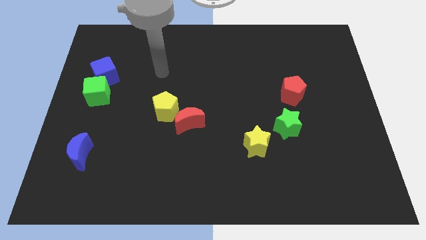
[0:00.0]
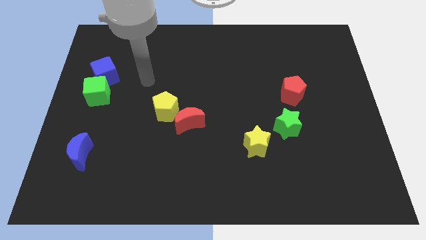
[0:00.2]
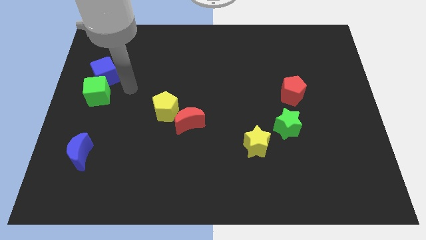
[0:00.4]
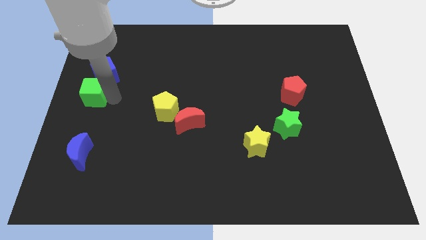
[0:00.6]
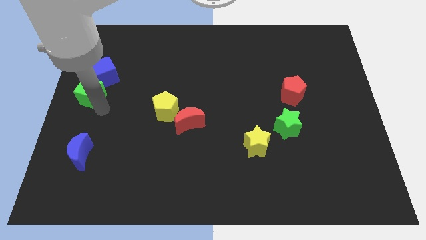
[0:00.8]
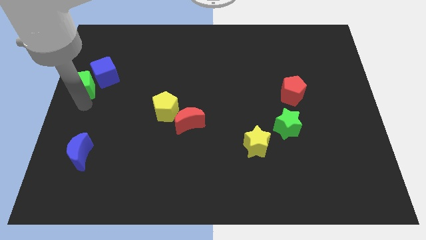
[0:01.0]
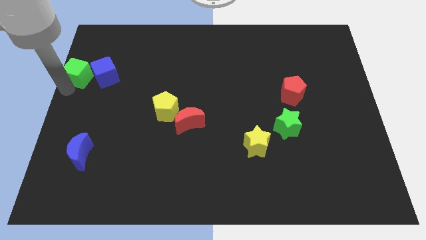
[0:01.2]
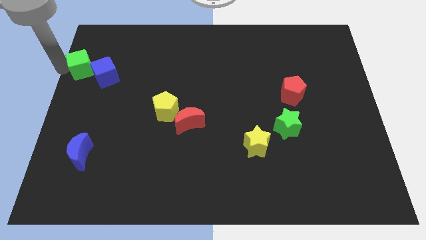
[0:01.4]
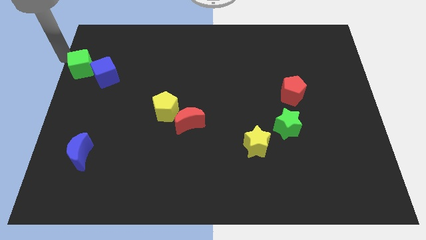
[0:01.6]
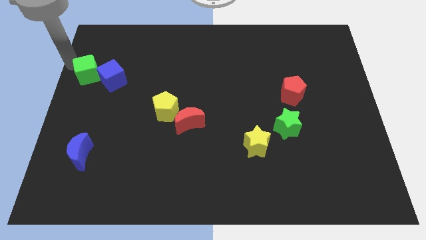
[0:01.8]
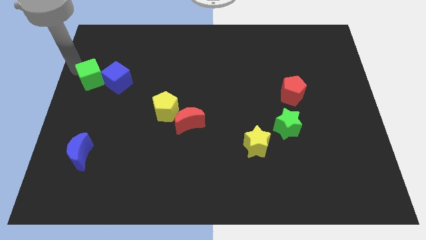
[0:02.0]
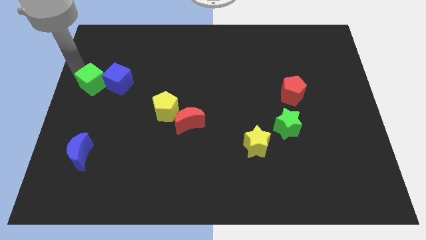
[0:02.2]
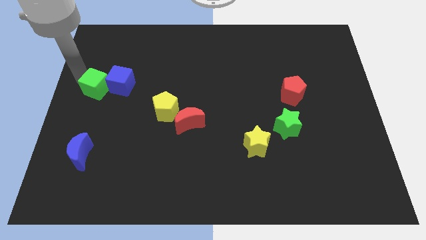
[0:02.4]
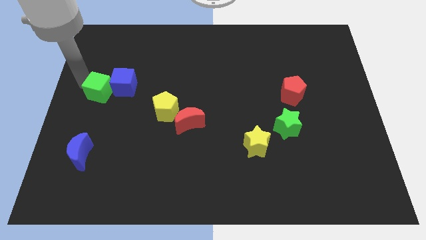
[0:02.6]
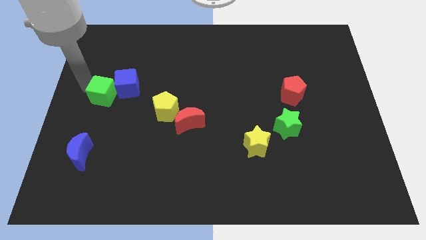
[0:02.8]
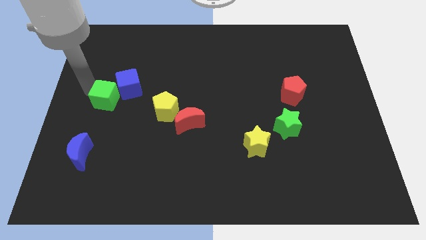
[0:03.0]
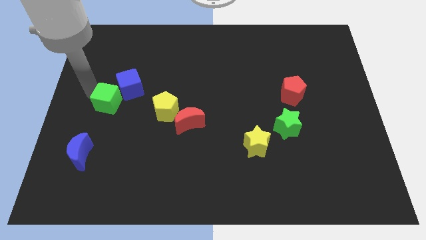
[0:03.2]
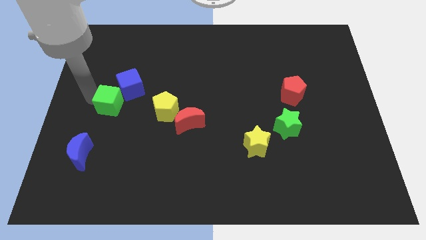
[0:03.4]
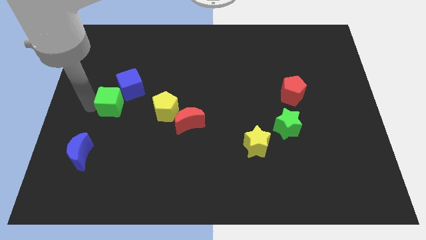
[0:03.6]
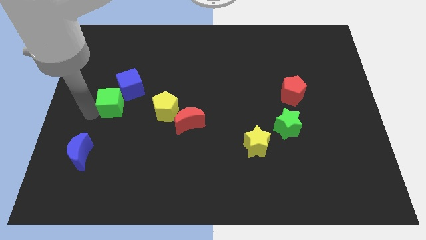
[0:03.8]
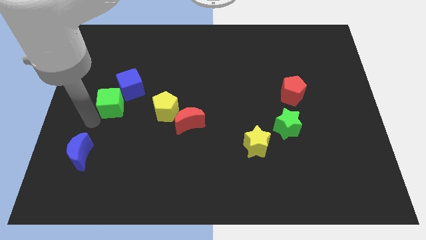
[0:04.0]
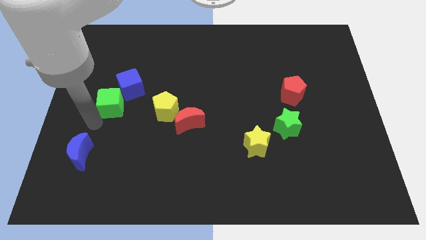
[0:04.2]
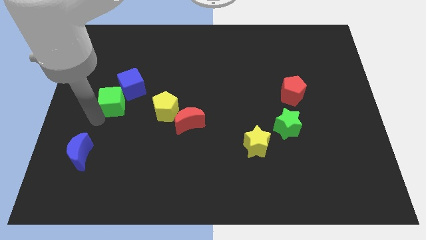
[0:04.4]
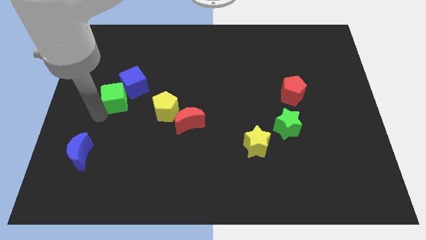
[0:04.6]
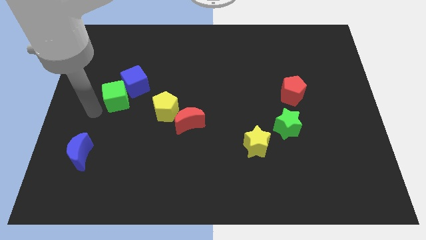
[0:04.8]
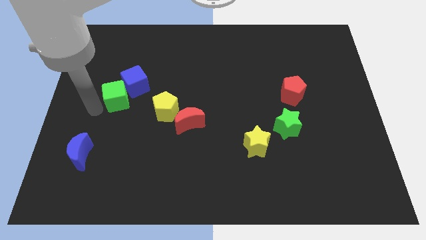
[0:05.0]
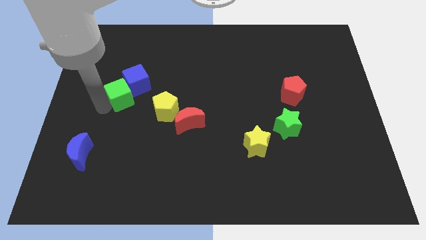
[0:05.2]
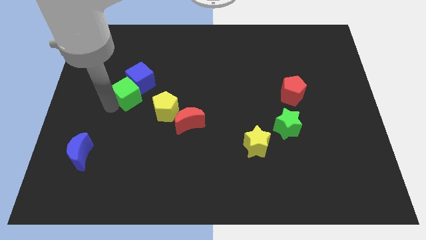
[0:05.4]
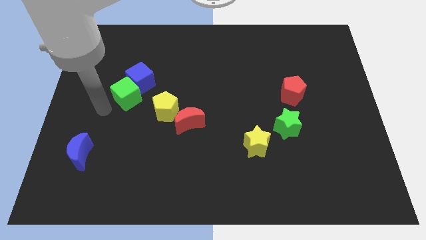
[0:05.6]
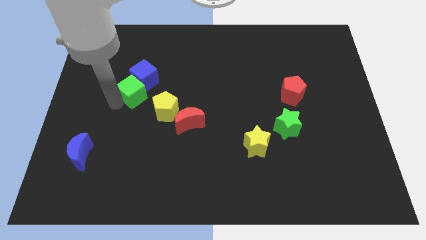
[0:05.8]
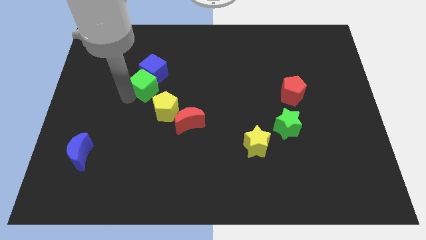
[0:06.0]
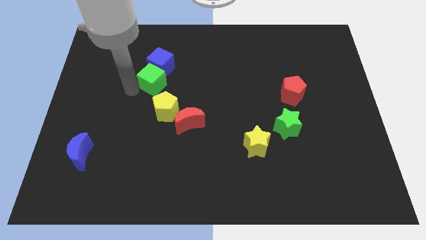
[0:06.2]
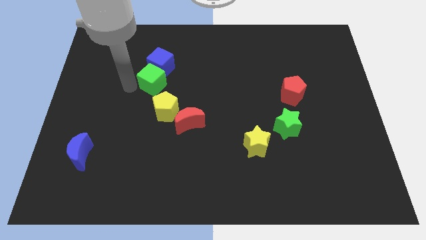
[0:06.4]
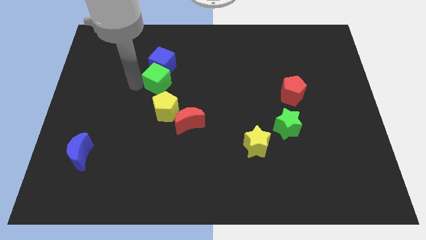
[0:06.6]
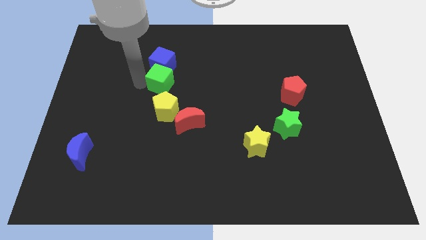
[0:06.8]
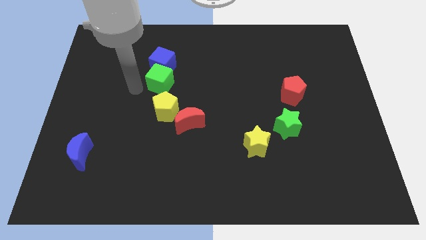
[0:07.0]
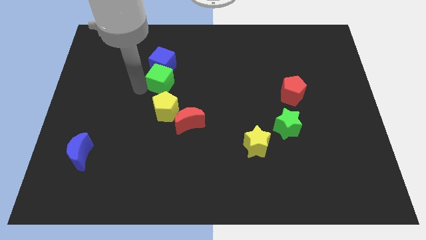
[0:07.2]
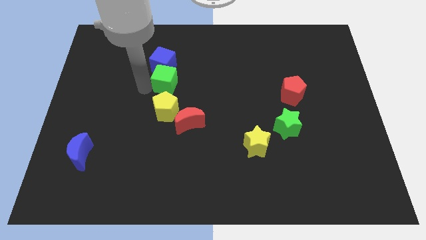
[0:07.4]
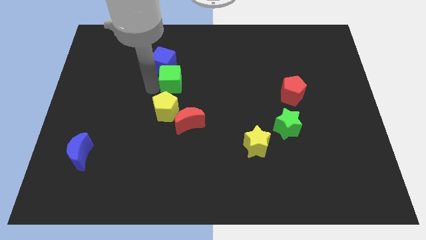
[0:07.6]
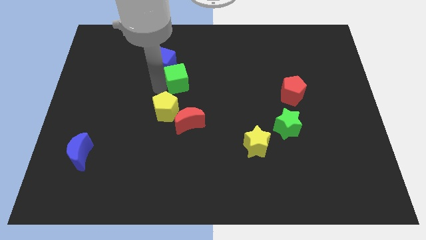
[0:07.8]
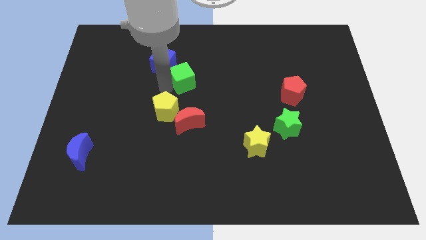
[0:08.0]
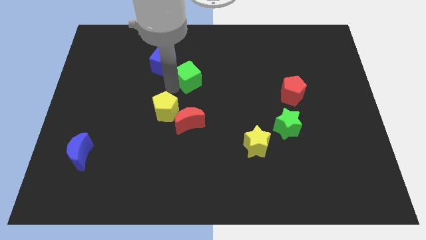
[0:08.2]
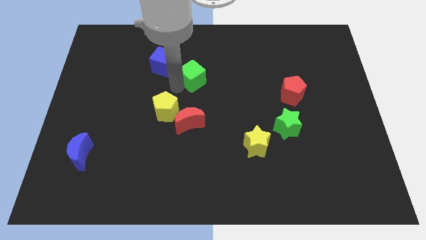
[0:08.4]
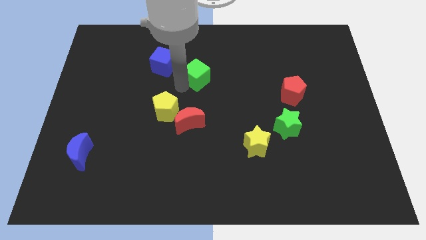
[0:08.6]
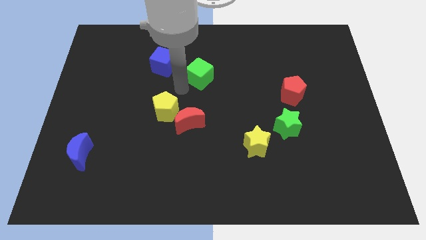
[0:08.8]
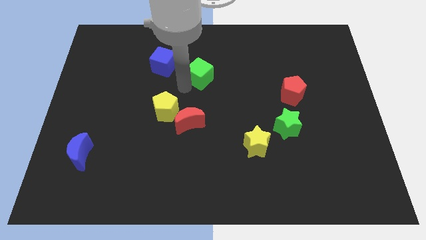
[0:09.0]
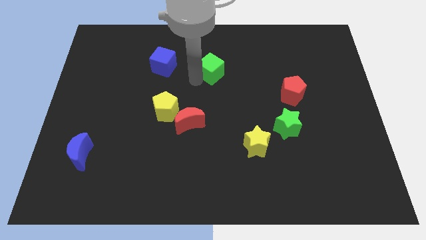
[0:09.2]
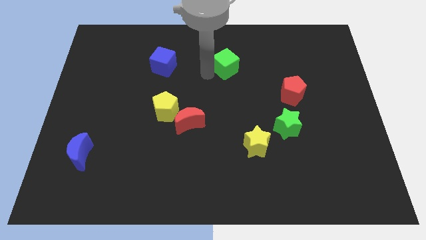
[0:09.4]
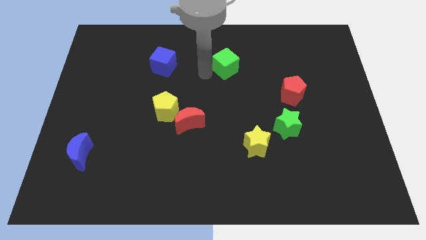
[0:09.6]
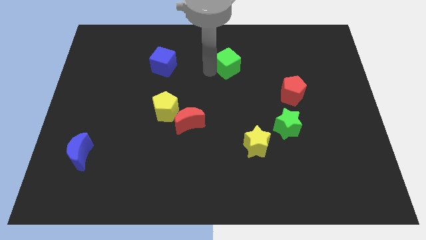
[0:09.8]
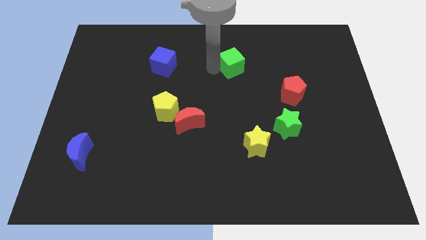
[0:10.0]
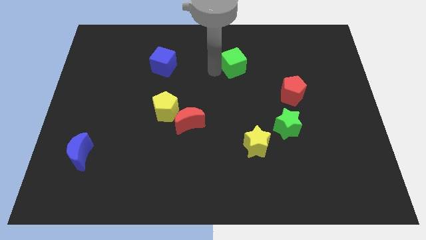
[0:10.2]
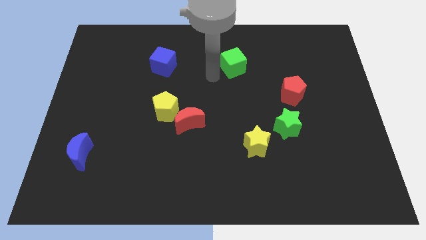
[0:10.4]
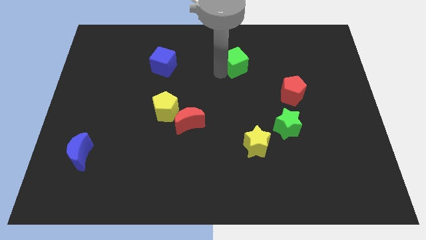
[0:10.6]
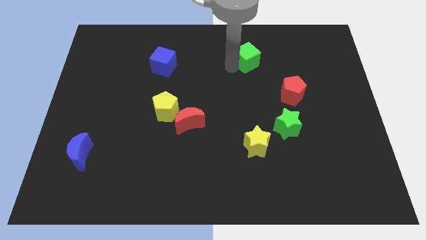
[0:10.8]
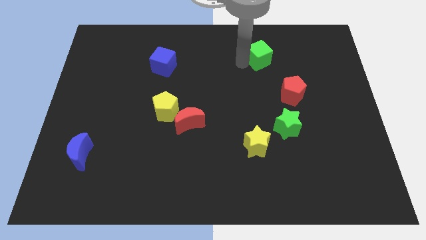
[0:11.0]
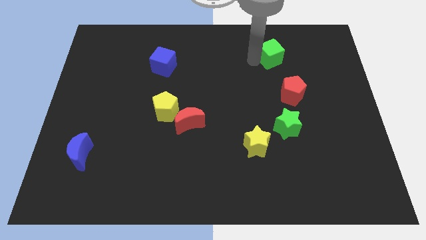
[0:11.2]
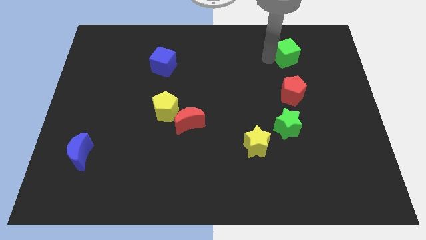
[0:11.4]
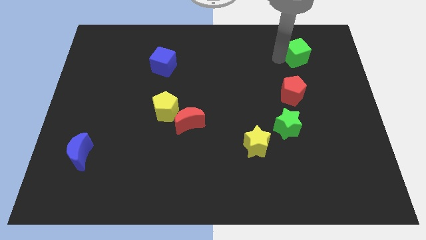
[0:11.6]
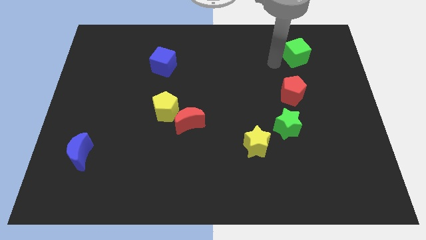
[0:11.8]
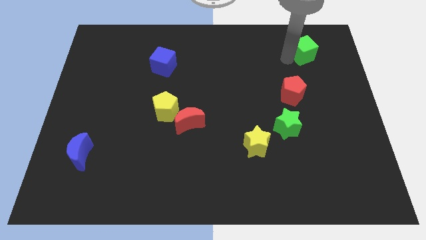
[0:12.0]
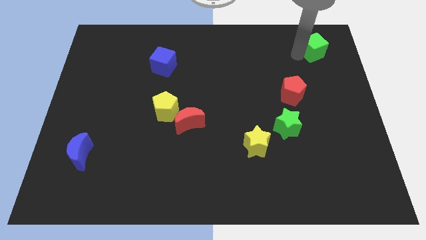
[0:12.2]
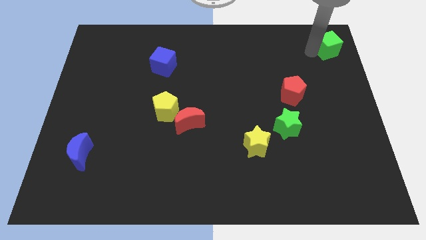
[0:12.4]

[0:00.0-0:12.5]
move the green cube to the upper right corner

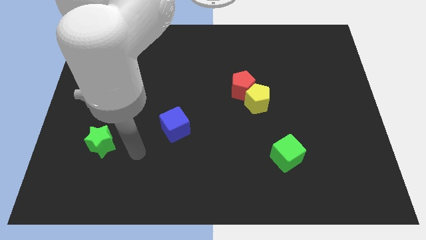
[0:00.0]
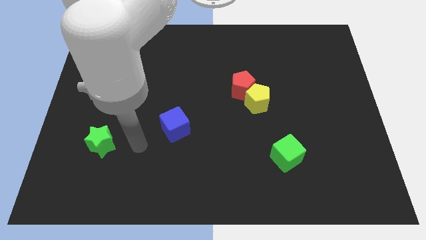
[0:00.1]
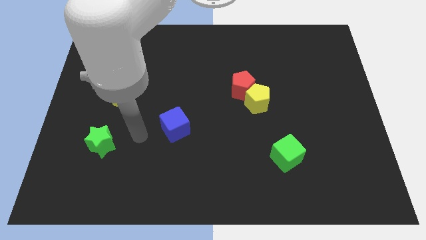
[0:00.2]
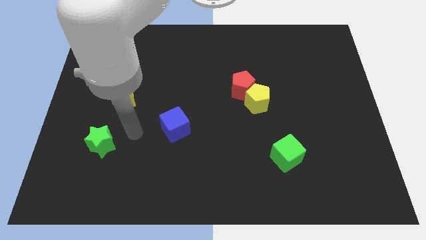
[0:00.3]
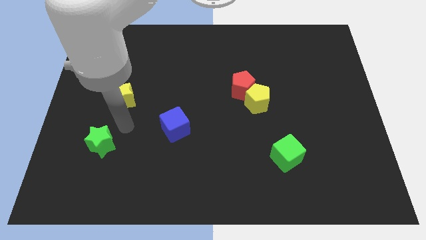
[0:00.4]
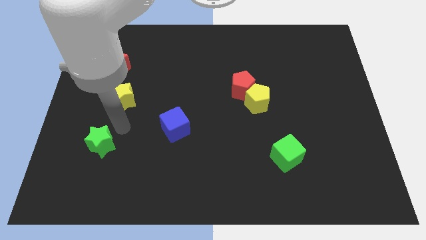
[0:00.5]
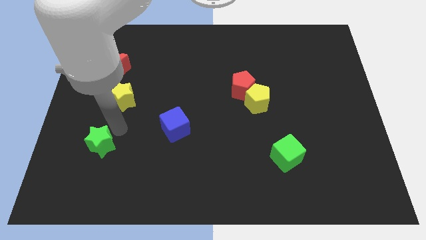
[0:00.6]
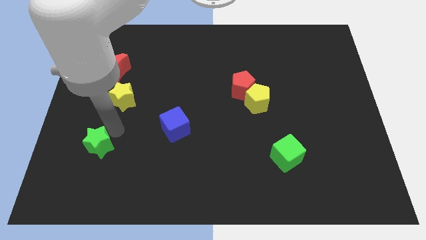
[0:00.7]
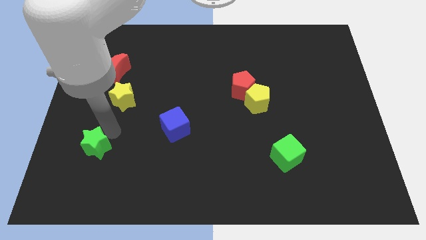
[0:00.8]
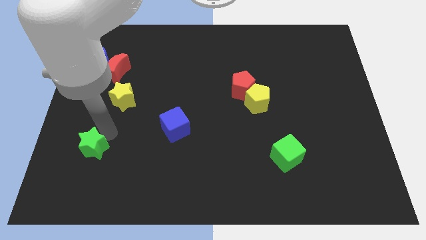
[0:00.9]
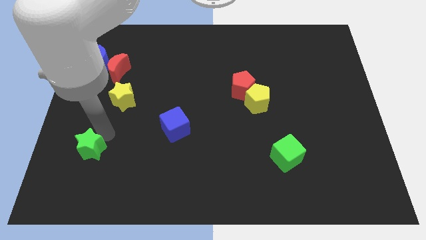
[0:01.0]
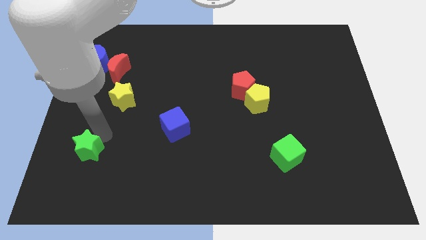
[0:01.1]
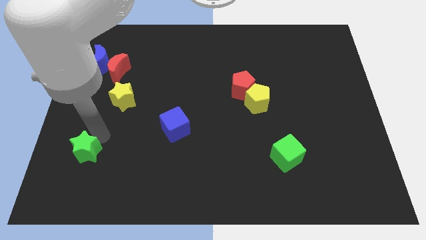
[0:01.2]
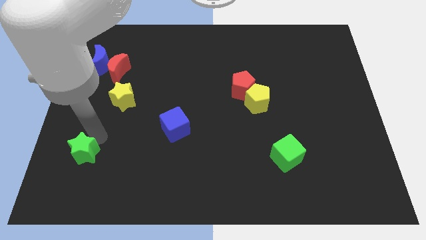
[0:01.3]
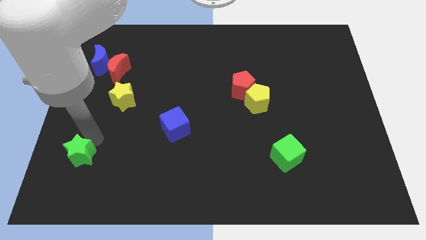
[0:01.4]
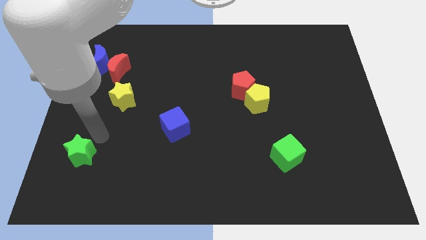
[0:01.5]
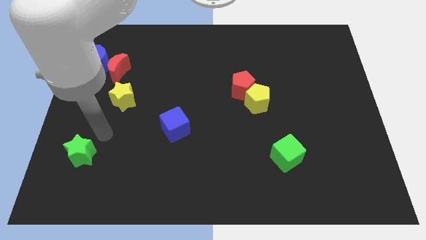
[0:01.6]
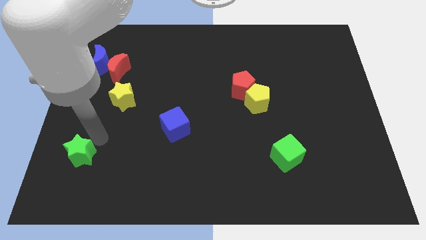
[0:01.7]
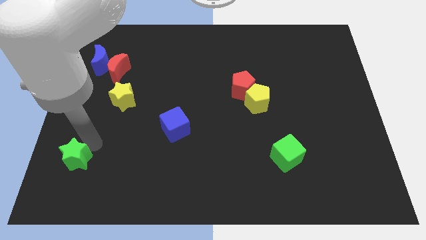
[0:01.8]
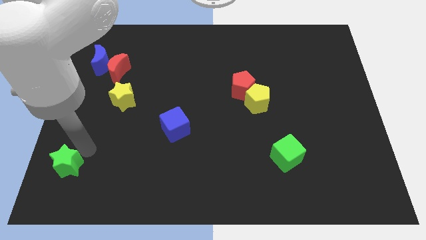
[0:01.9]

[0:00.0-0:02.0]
slide the green star to the bottom left
